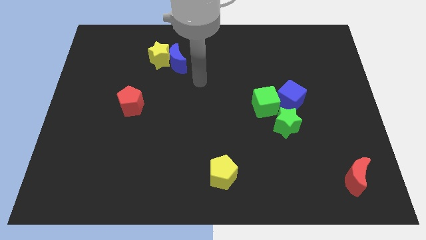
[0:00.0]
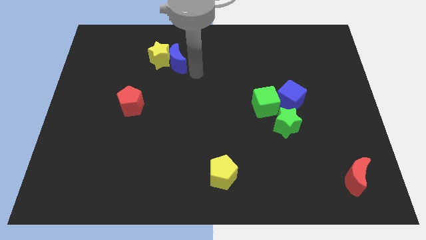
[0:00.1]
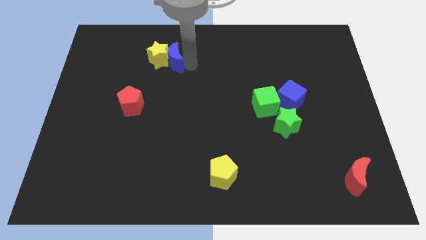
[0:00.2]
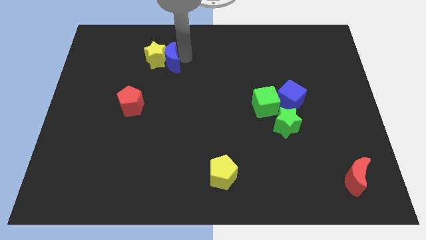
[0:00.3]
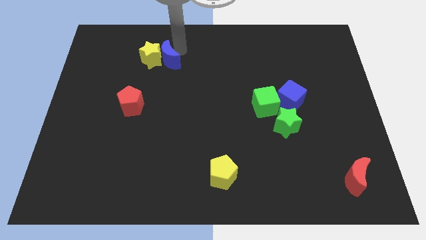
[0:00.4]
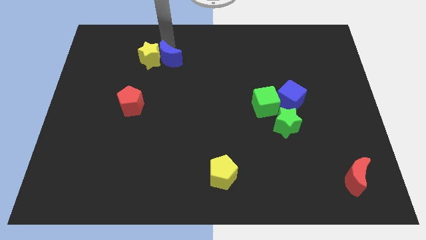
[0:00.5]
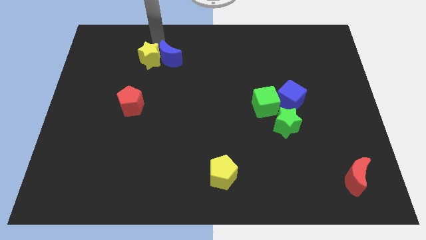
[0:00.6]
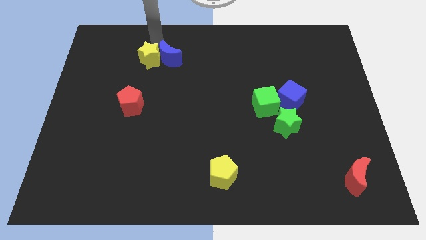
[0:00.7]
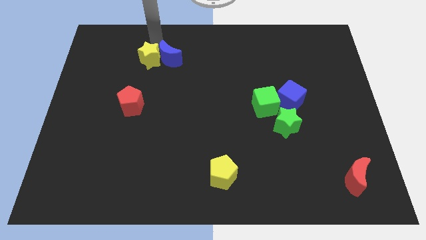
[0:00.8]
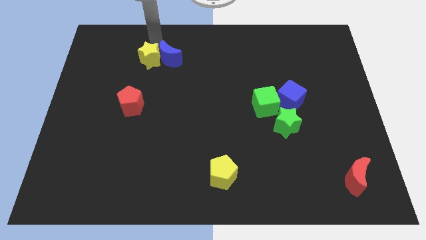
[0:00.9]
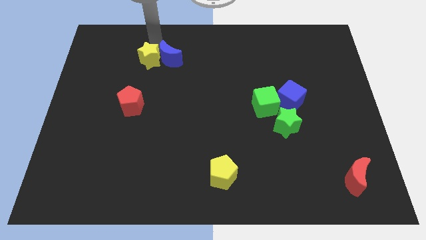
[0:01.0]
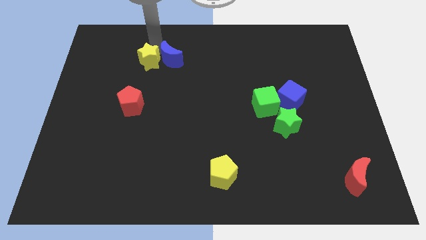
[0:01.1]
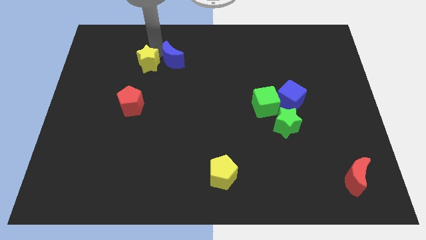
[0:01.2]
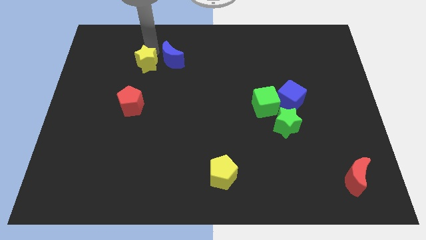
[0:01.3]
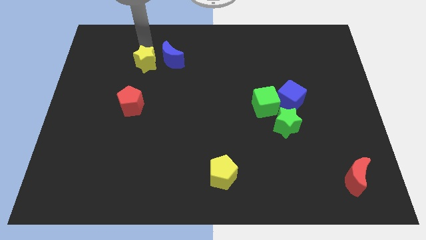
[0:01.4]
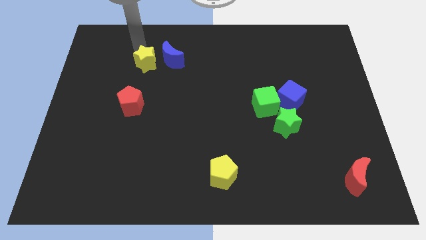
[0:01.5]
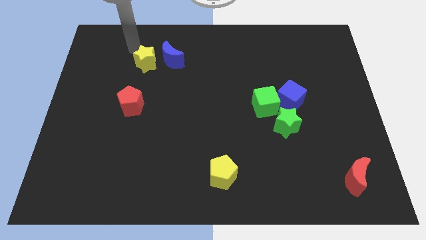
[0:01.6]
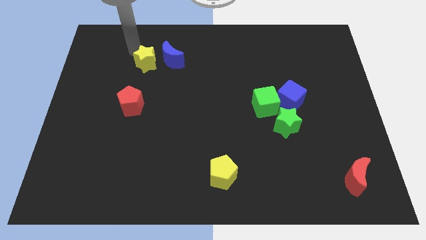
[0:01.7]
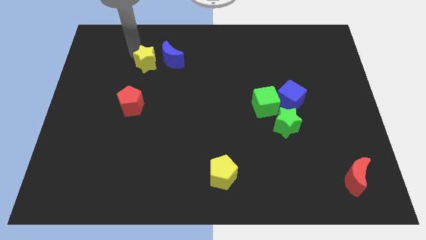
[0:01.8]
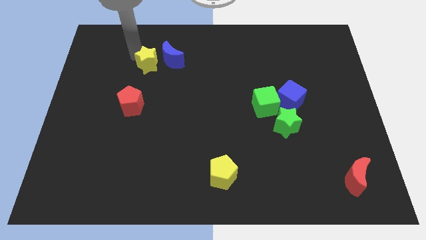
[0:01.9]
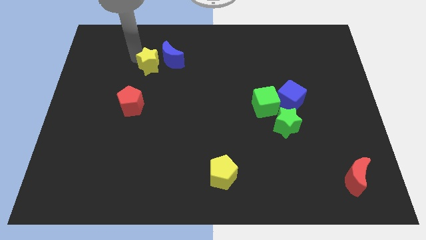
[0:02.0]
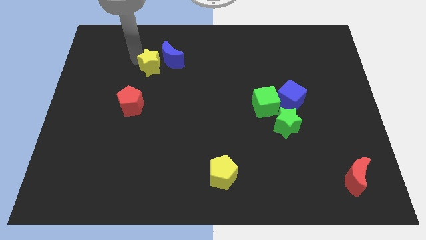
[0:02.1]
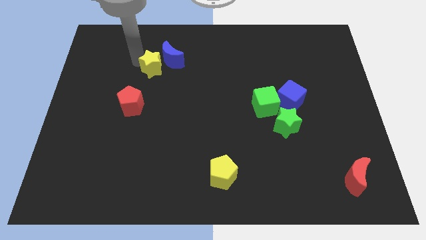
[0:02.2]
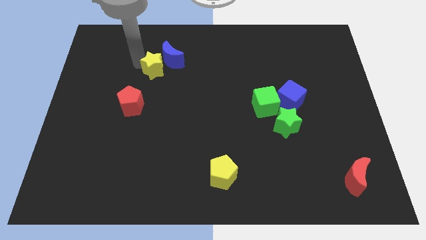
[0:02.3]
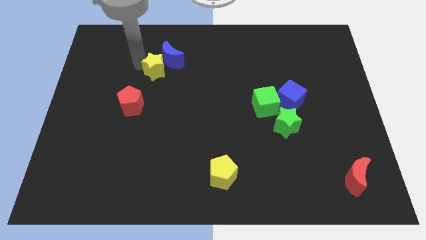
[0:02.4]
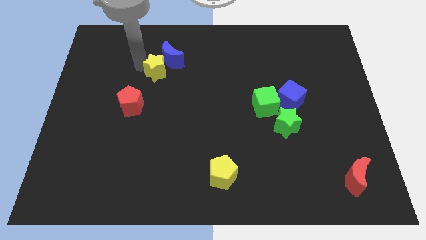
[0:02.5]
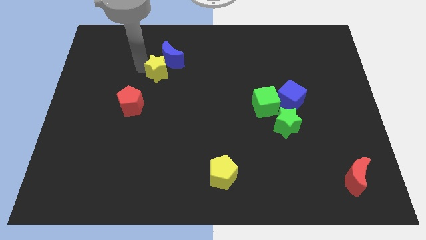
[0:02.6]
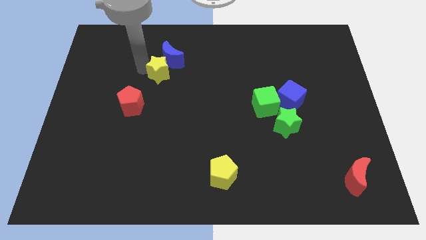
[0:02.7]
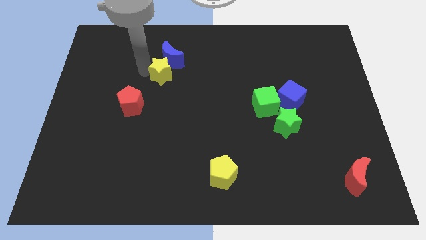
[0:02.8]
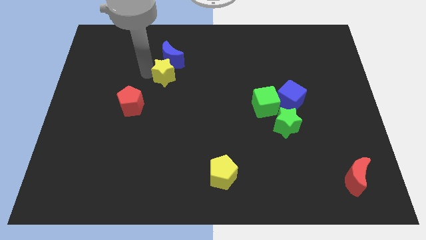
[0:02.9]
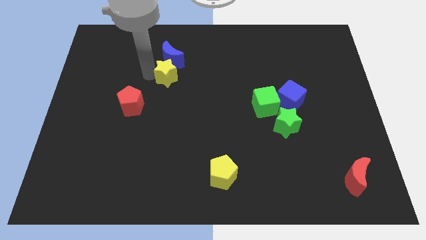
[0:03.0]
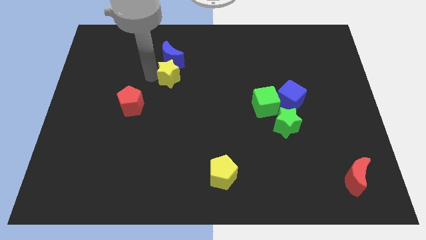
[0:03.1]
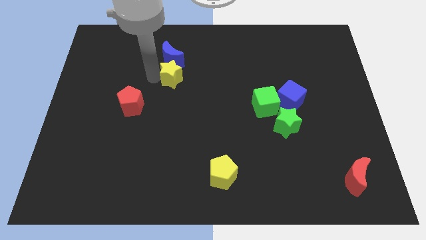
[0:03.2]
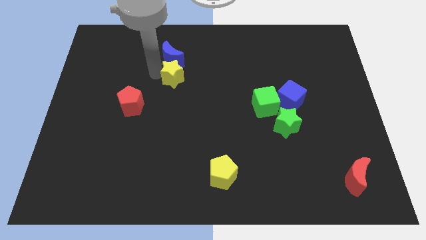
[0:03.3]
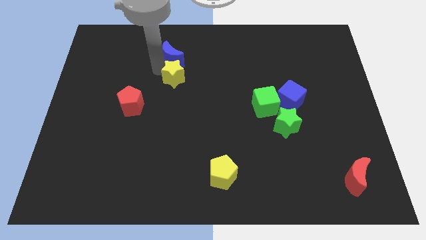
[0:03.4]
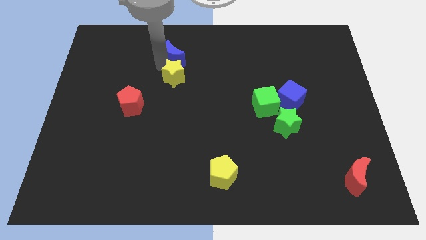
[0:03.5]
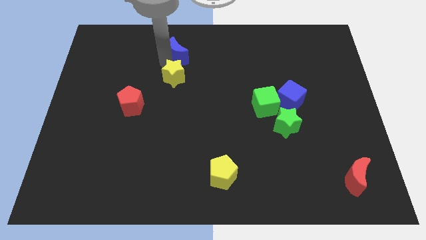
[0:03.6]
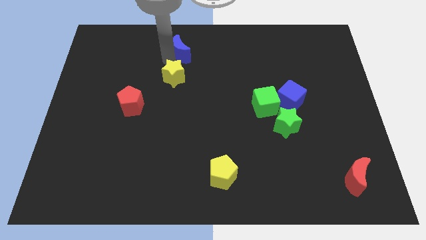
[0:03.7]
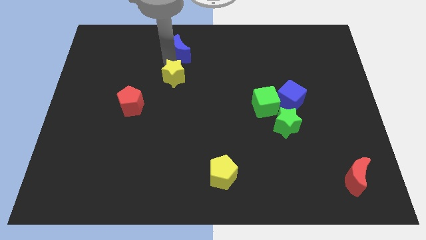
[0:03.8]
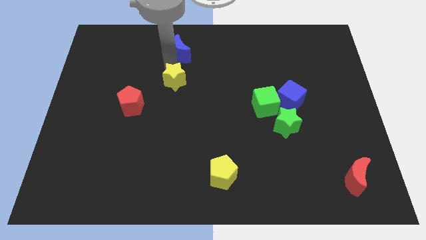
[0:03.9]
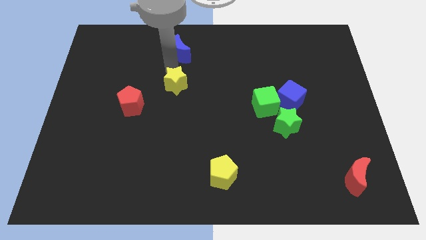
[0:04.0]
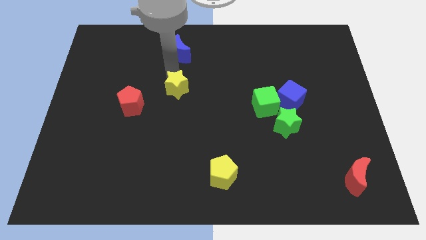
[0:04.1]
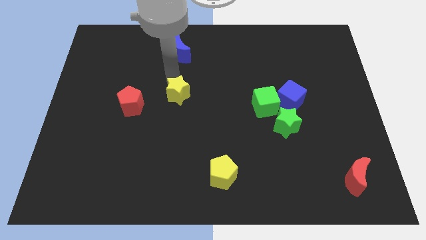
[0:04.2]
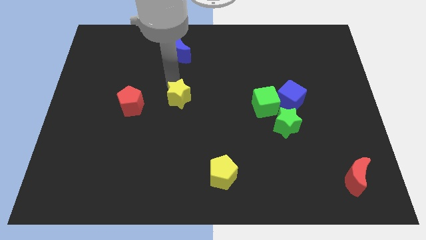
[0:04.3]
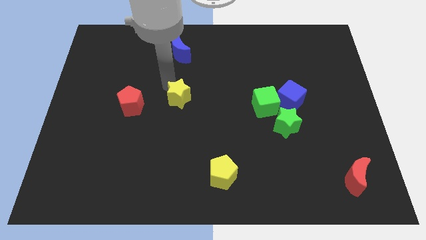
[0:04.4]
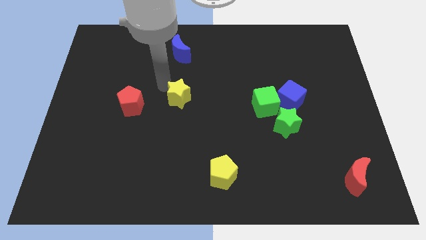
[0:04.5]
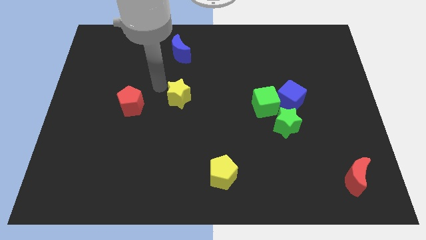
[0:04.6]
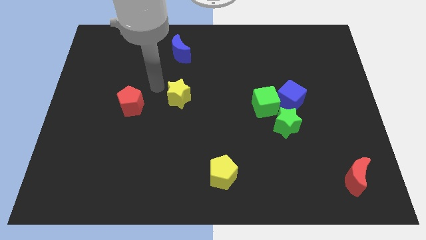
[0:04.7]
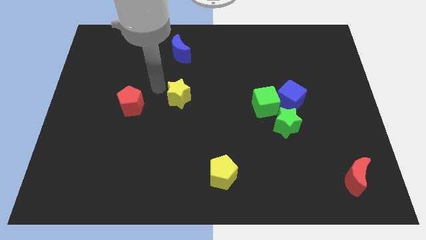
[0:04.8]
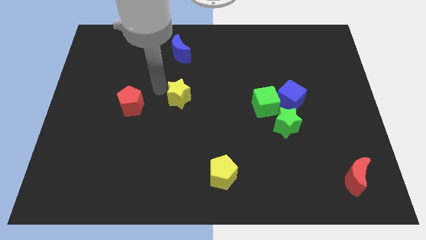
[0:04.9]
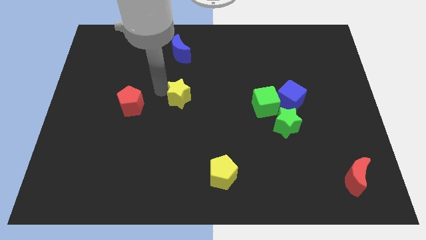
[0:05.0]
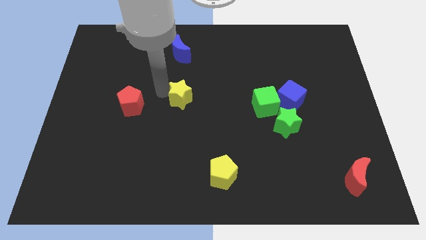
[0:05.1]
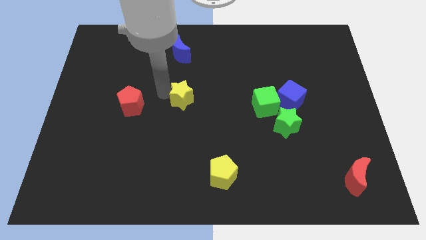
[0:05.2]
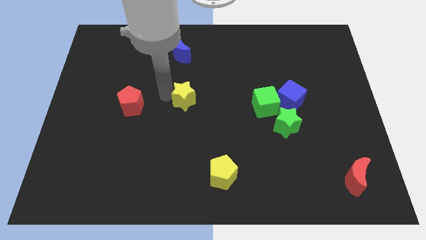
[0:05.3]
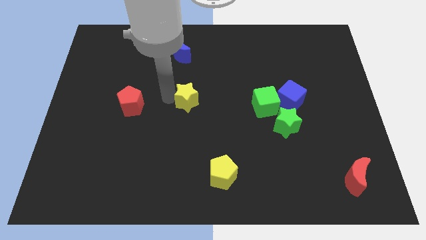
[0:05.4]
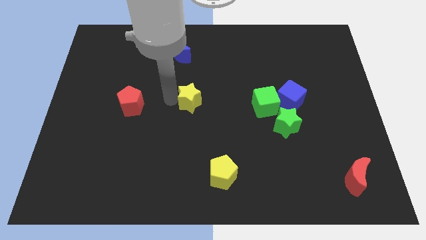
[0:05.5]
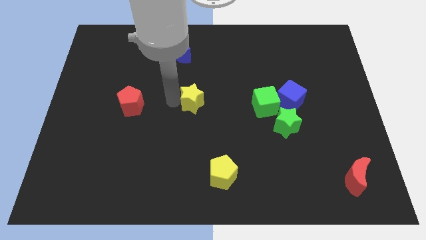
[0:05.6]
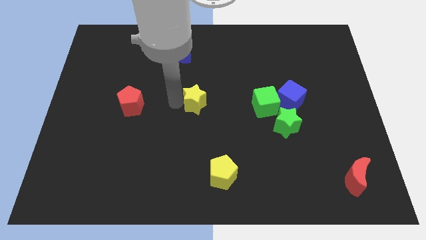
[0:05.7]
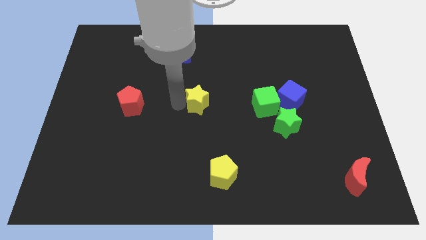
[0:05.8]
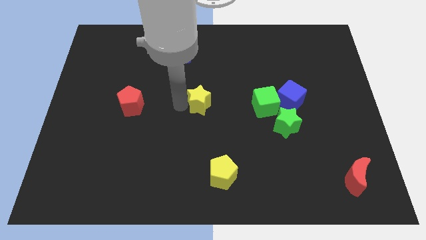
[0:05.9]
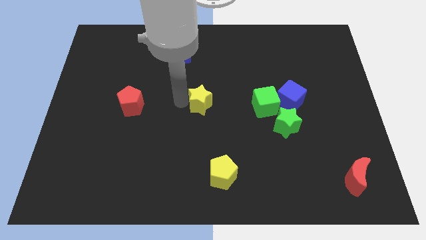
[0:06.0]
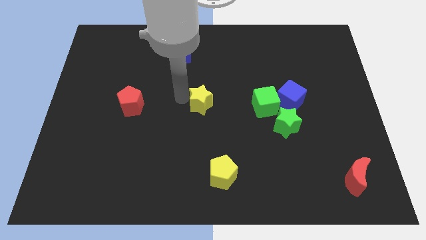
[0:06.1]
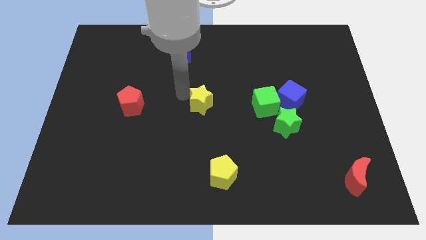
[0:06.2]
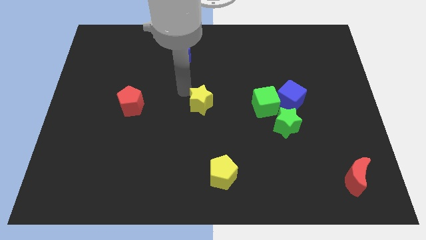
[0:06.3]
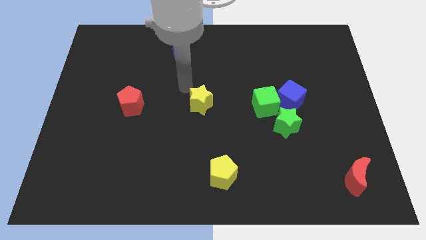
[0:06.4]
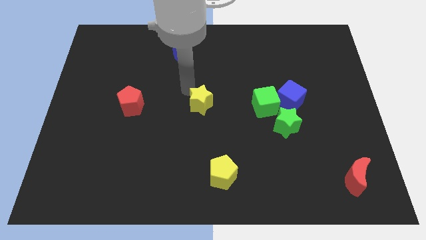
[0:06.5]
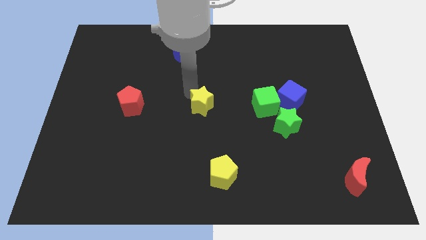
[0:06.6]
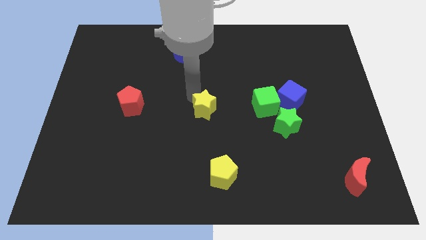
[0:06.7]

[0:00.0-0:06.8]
move the yellow star down and to the right

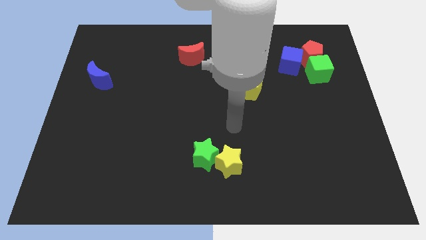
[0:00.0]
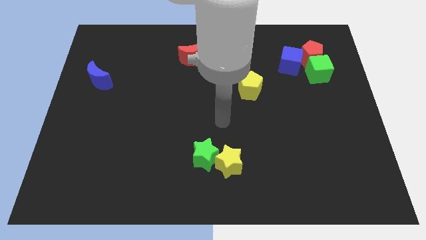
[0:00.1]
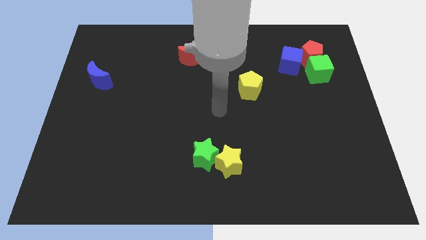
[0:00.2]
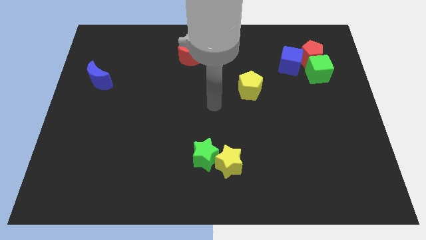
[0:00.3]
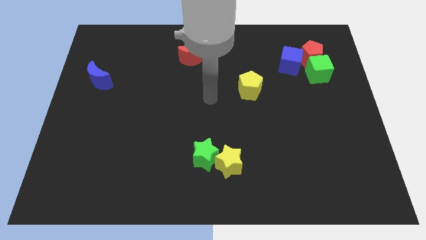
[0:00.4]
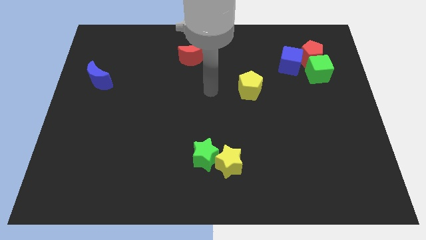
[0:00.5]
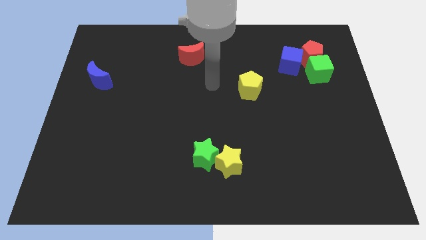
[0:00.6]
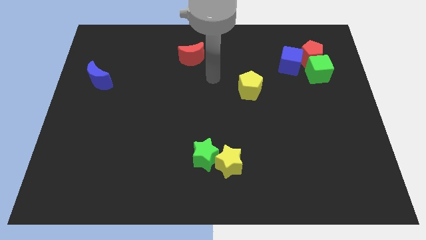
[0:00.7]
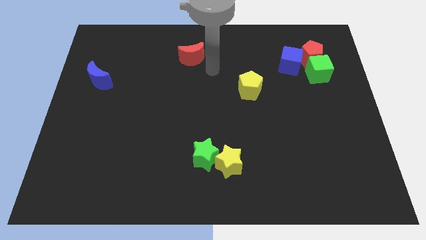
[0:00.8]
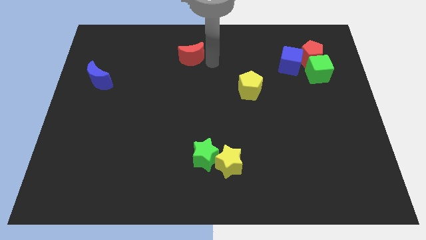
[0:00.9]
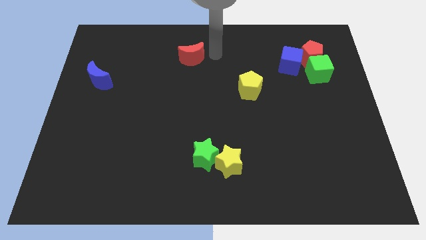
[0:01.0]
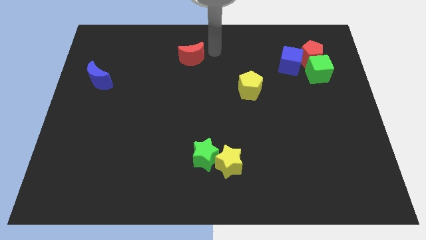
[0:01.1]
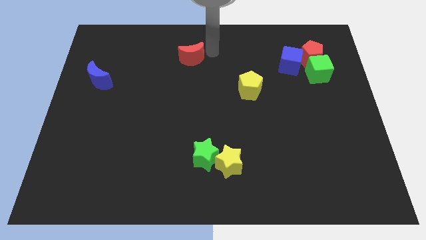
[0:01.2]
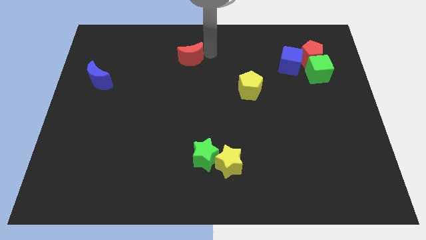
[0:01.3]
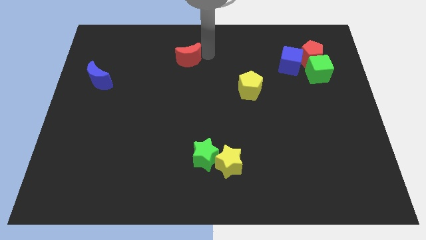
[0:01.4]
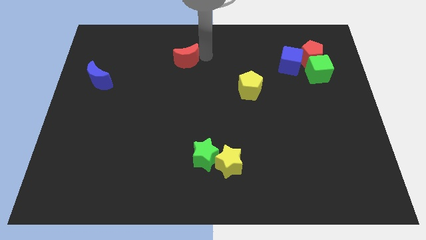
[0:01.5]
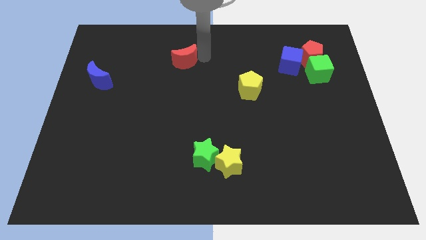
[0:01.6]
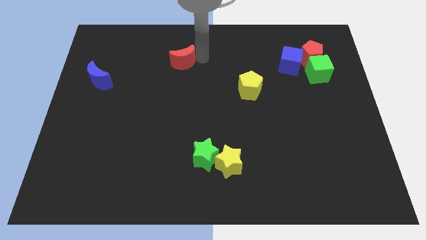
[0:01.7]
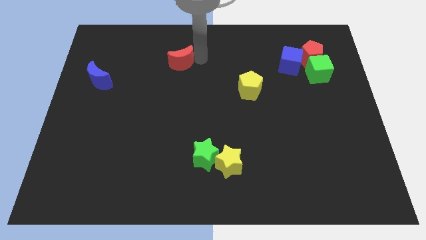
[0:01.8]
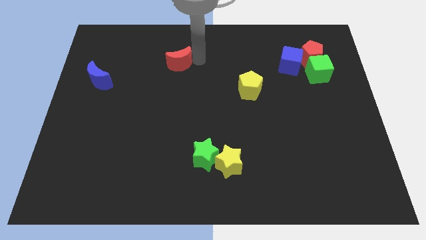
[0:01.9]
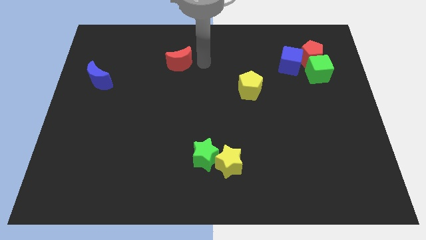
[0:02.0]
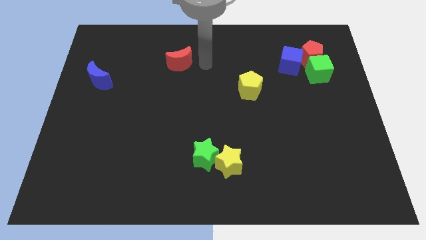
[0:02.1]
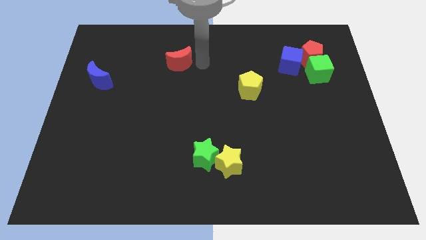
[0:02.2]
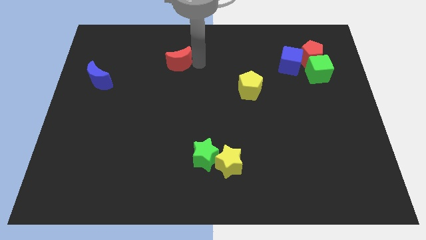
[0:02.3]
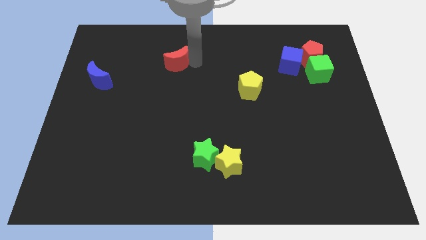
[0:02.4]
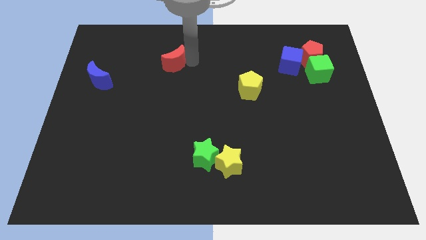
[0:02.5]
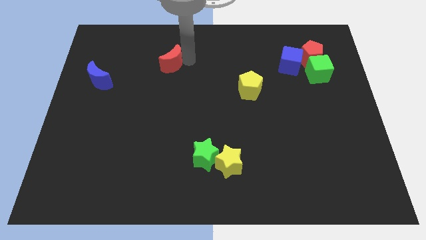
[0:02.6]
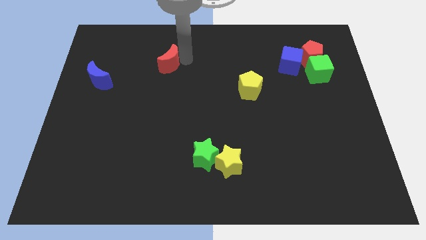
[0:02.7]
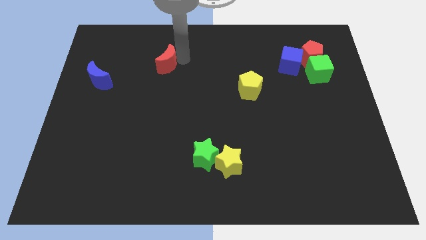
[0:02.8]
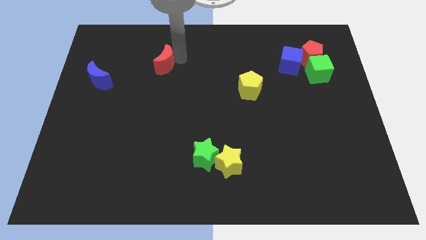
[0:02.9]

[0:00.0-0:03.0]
slide the red moon a little left
